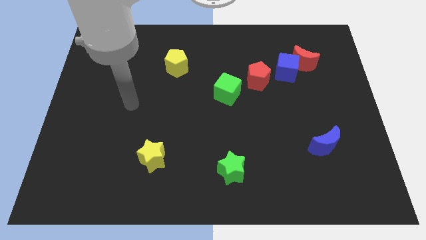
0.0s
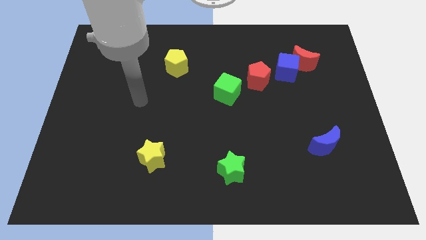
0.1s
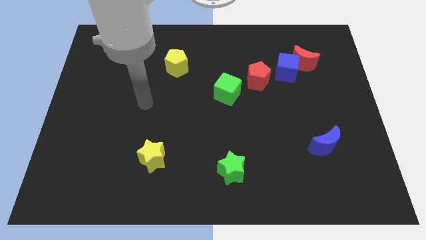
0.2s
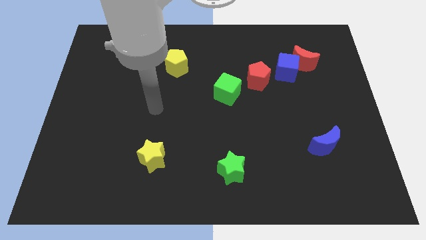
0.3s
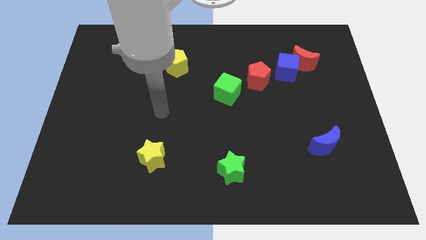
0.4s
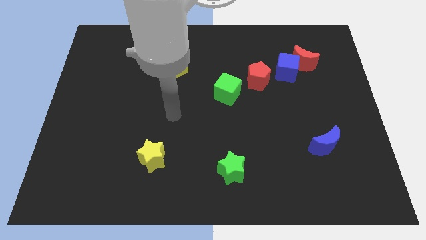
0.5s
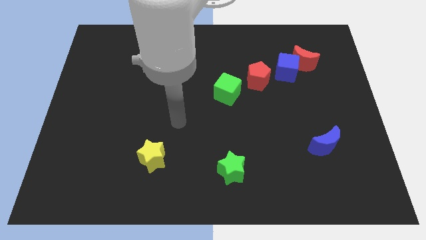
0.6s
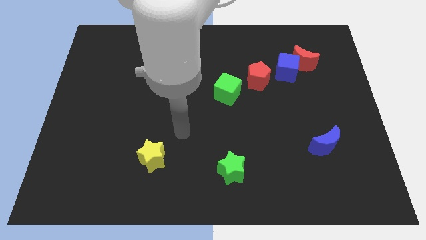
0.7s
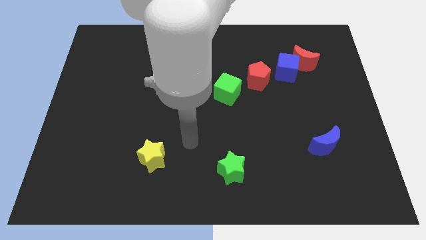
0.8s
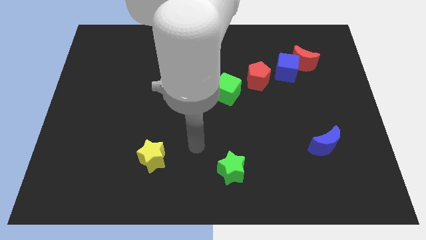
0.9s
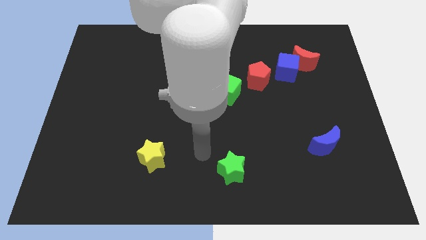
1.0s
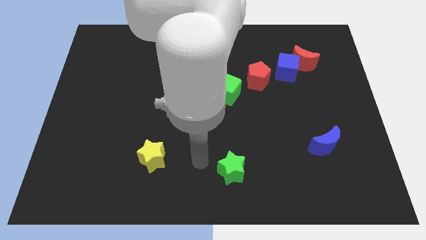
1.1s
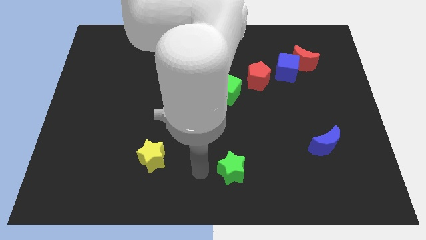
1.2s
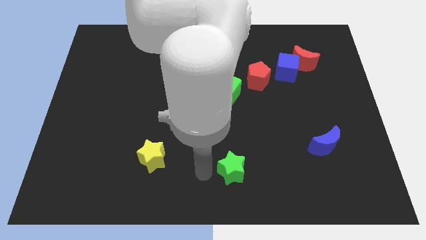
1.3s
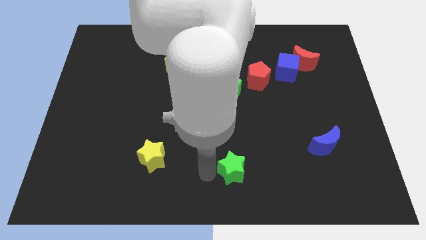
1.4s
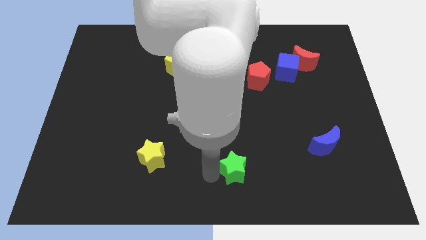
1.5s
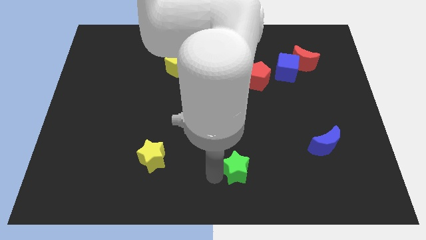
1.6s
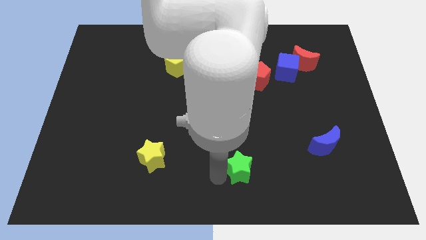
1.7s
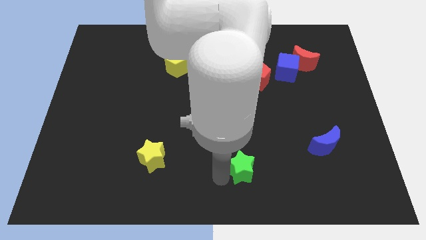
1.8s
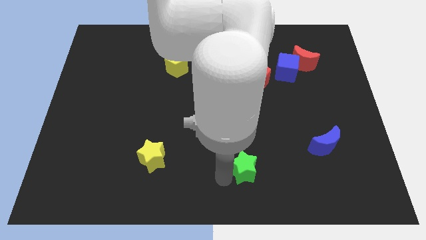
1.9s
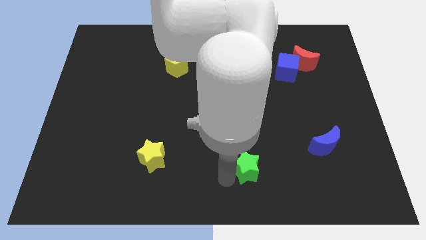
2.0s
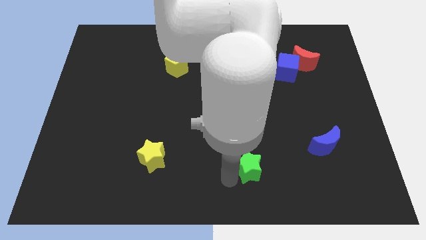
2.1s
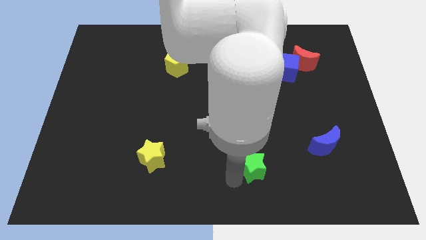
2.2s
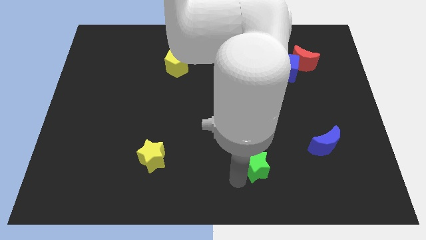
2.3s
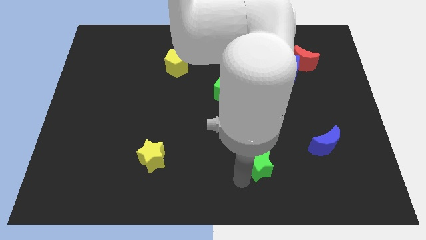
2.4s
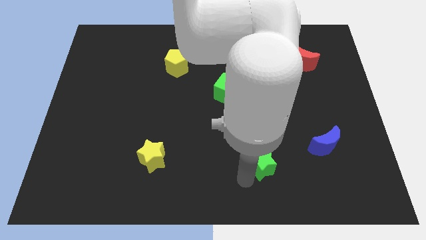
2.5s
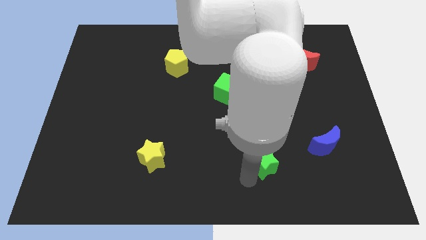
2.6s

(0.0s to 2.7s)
slightly slide the green star right

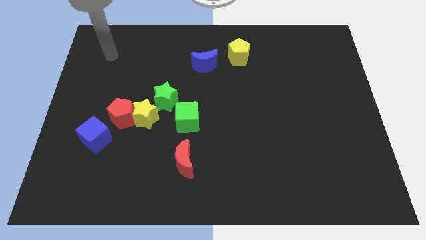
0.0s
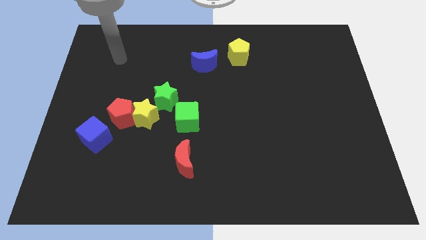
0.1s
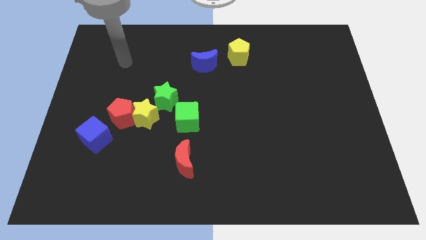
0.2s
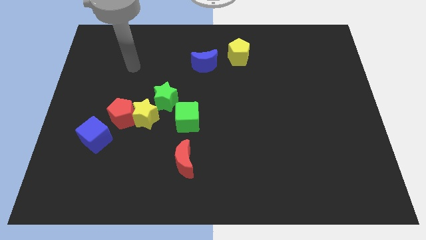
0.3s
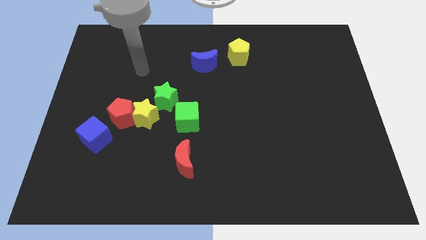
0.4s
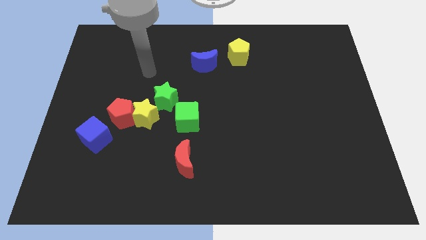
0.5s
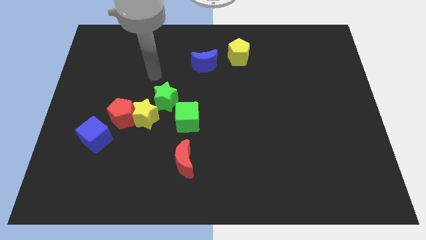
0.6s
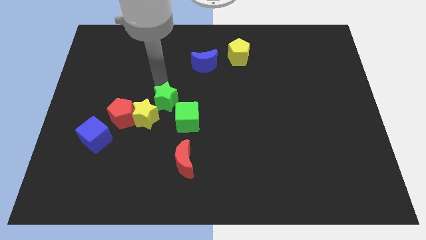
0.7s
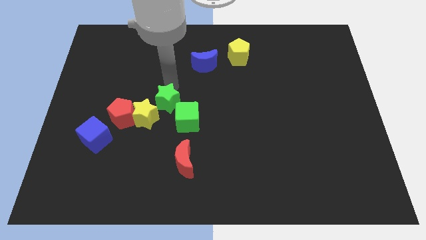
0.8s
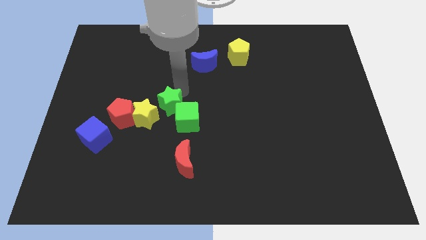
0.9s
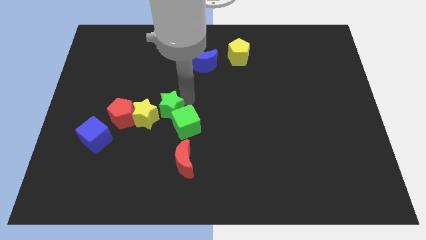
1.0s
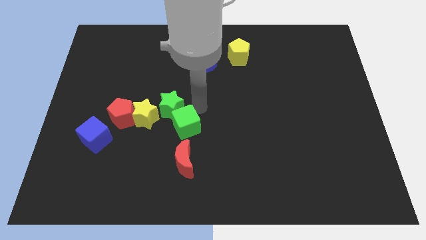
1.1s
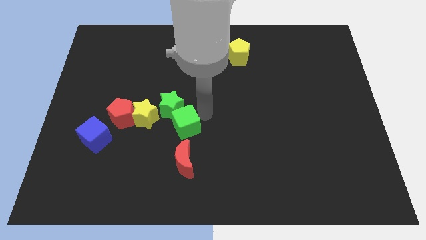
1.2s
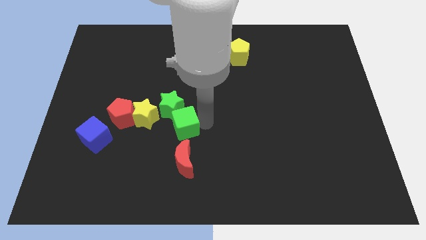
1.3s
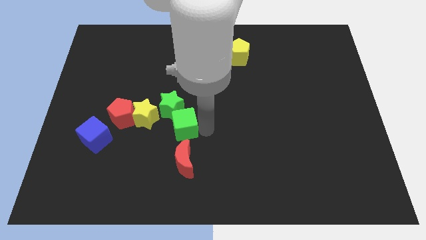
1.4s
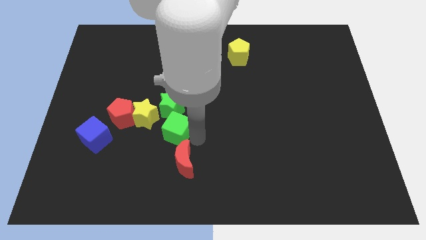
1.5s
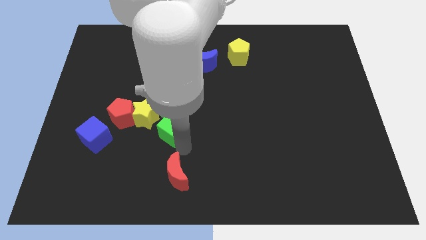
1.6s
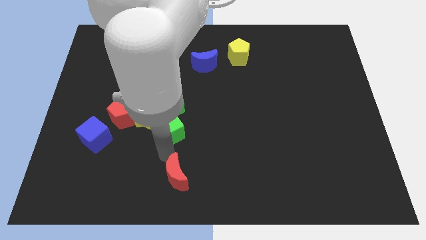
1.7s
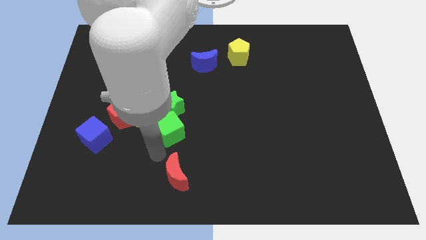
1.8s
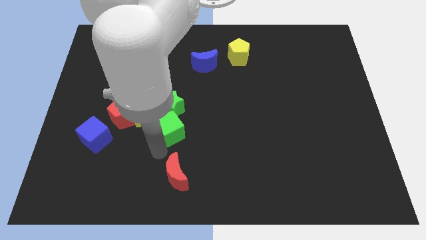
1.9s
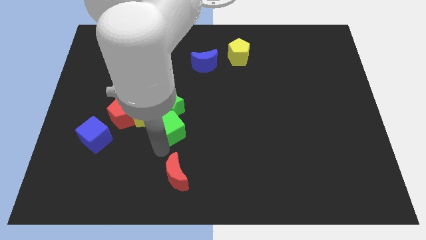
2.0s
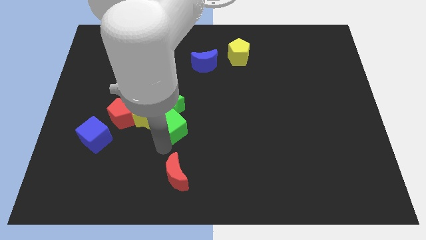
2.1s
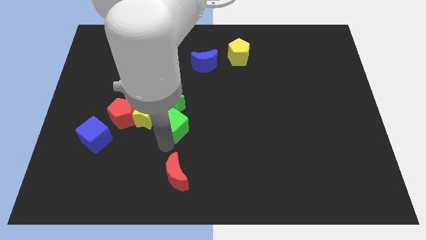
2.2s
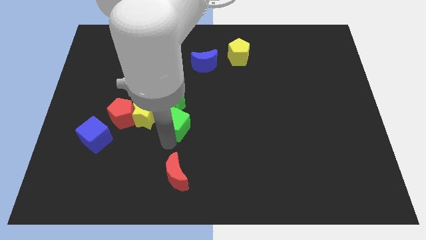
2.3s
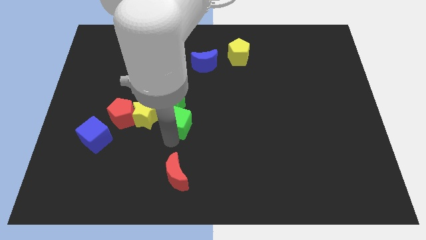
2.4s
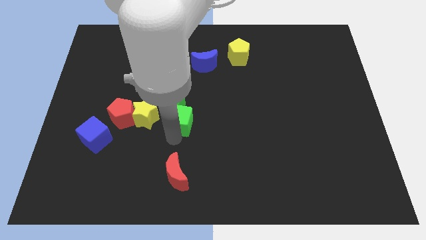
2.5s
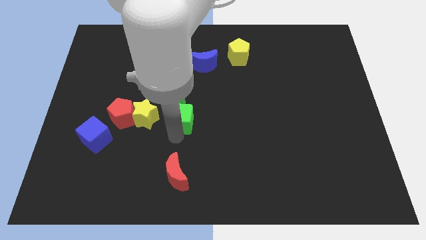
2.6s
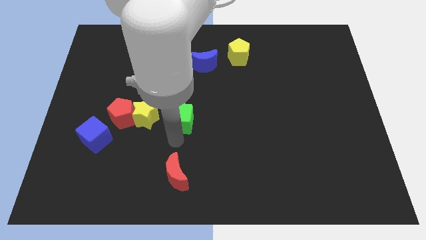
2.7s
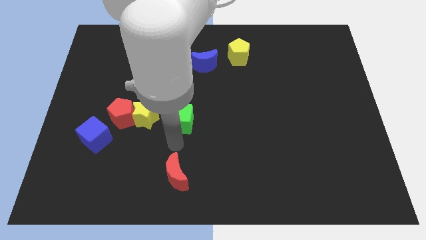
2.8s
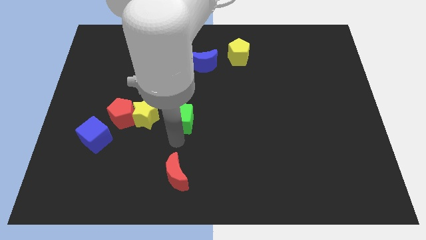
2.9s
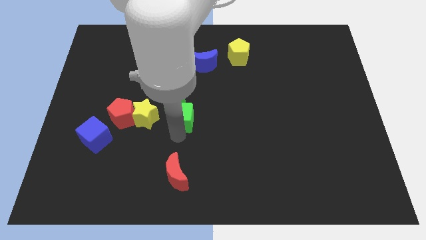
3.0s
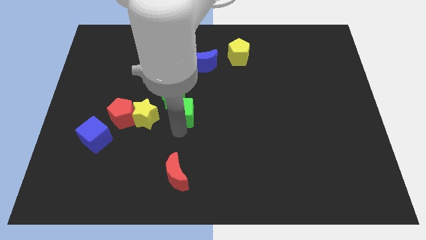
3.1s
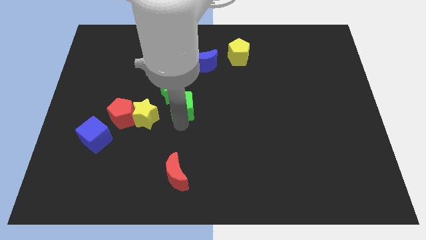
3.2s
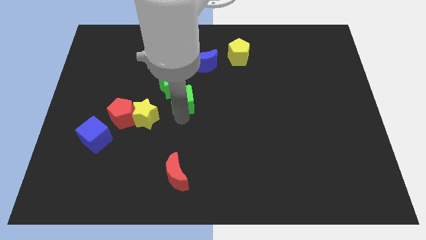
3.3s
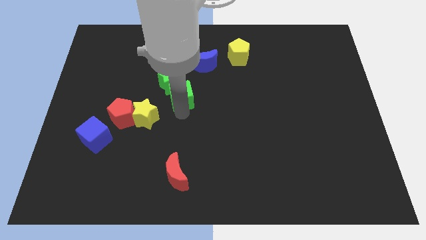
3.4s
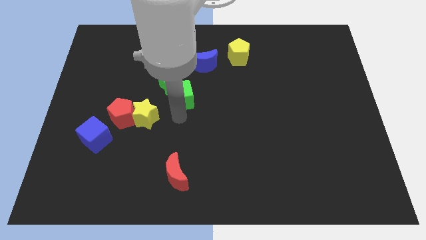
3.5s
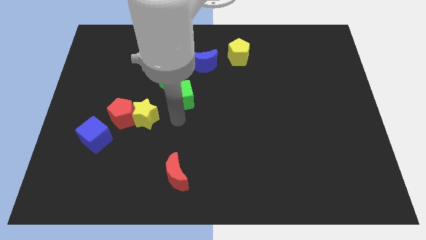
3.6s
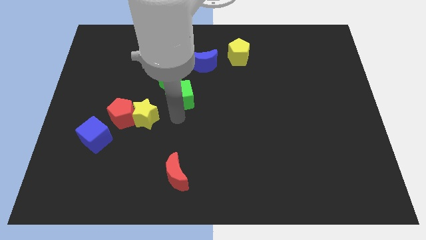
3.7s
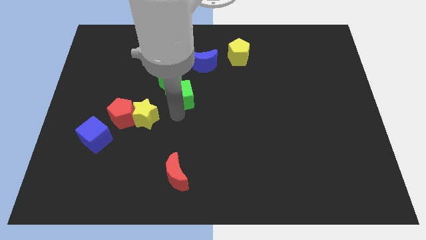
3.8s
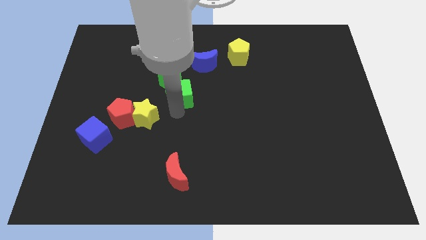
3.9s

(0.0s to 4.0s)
slide the green cube upwards a little

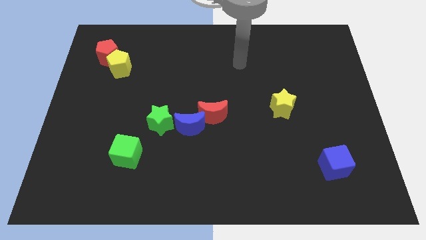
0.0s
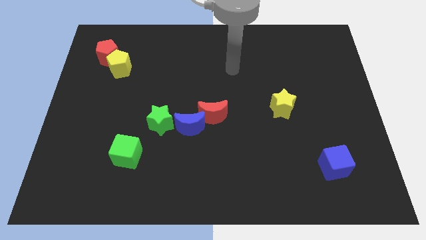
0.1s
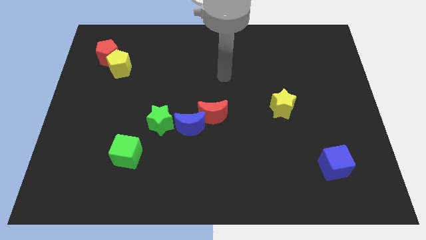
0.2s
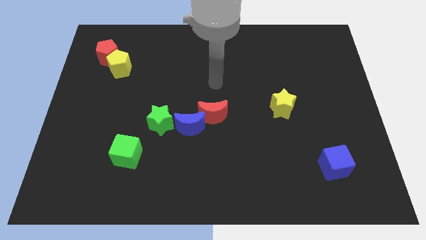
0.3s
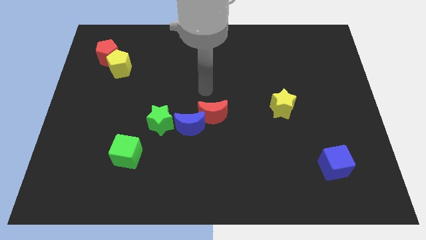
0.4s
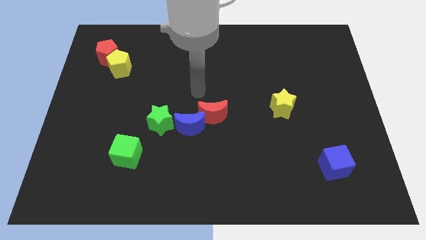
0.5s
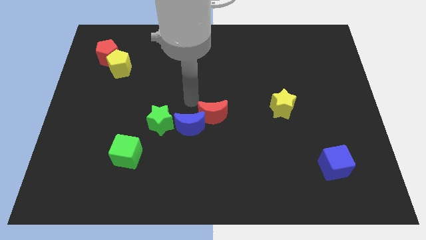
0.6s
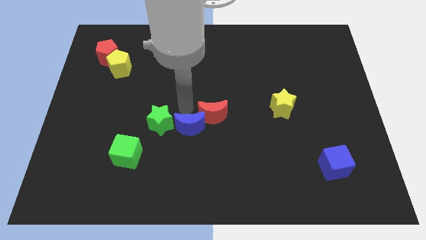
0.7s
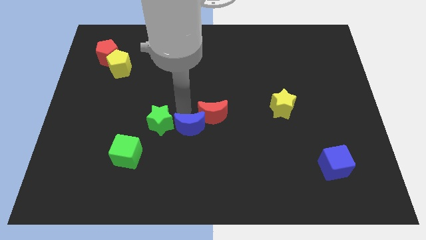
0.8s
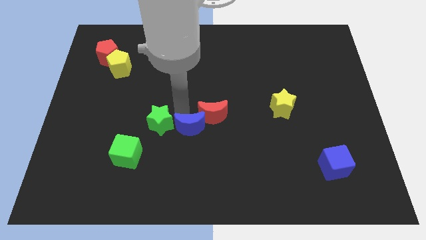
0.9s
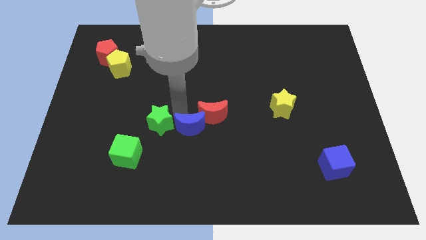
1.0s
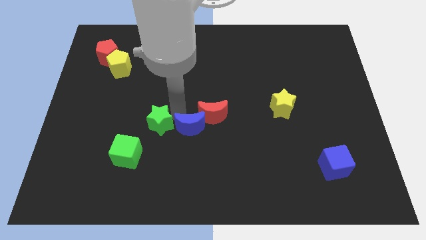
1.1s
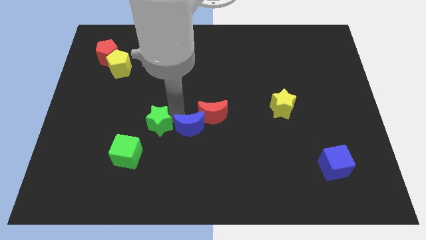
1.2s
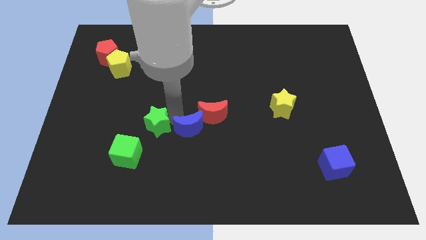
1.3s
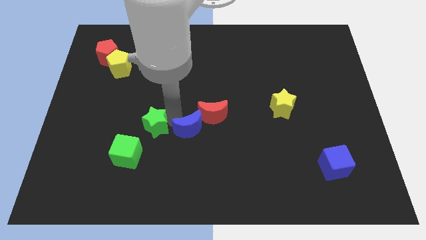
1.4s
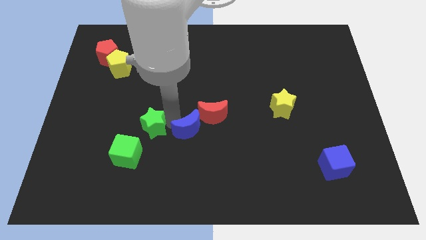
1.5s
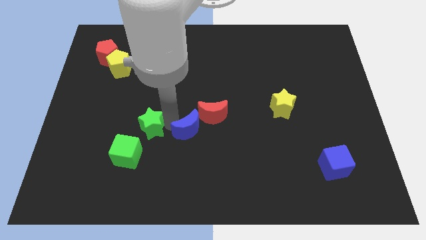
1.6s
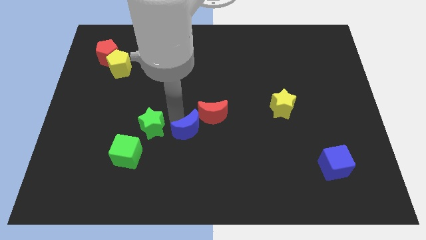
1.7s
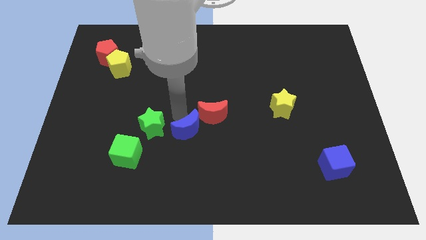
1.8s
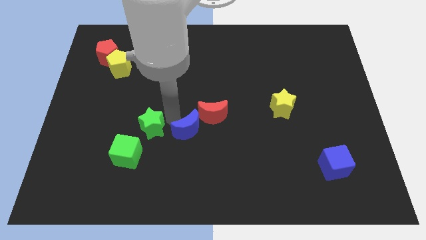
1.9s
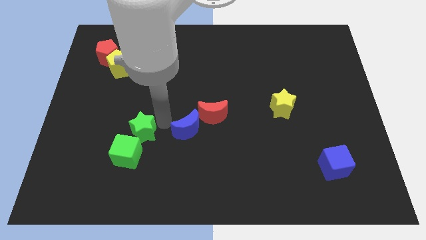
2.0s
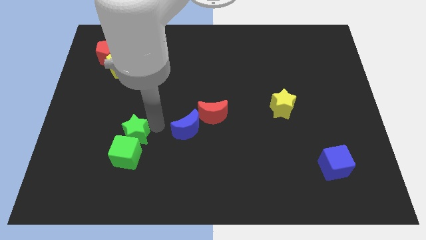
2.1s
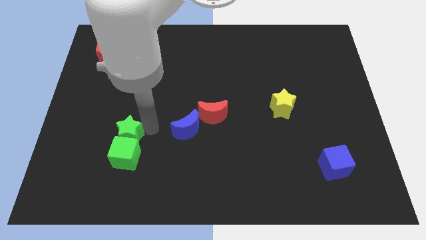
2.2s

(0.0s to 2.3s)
push the green star downwards and then left slightly
